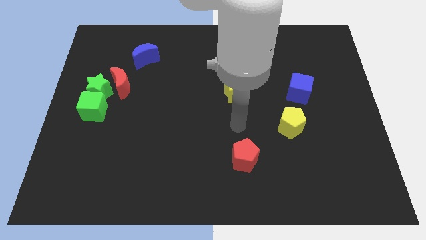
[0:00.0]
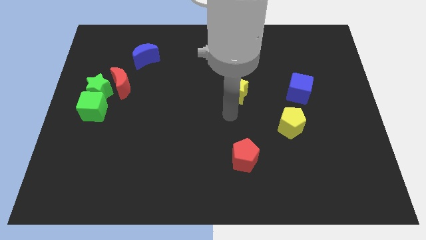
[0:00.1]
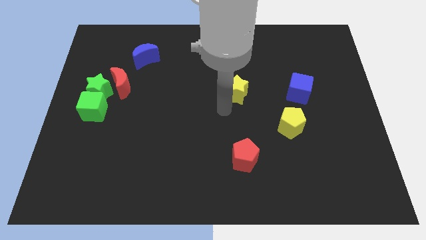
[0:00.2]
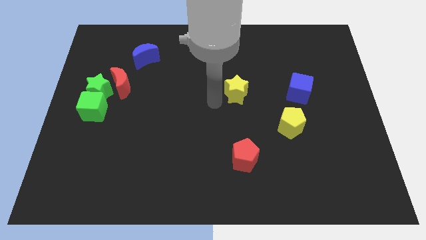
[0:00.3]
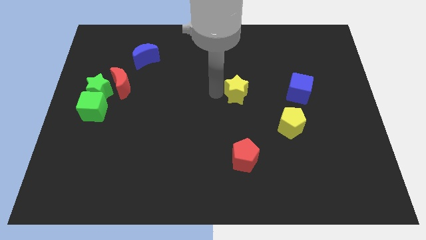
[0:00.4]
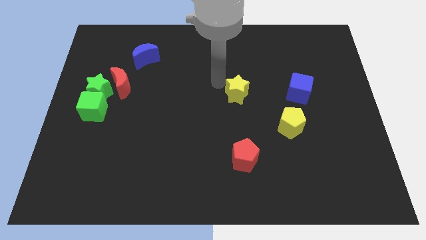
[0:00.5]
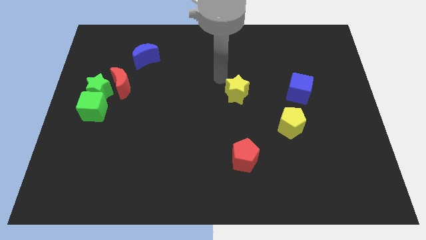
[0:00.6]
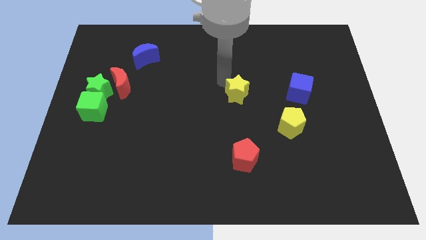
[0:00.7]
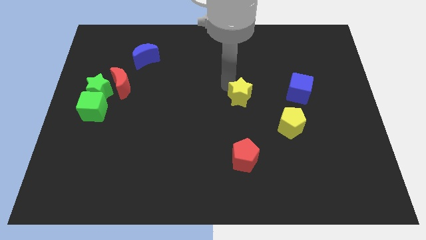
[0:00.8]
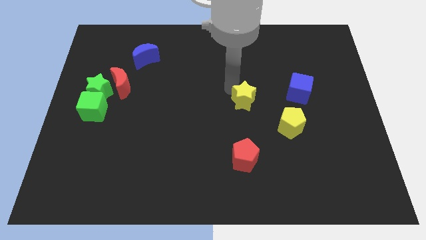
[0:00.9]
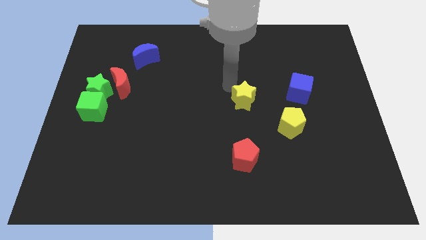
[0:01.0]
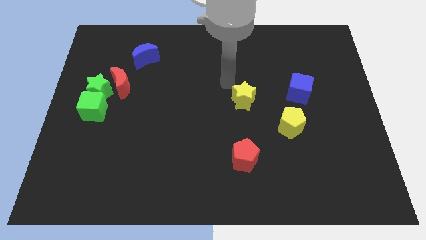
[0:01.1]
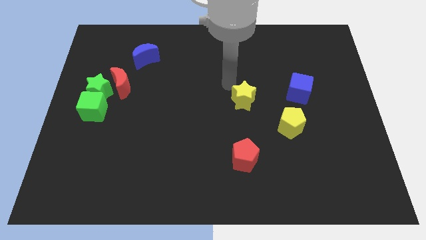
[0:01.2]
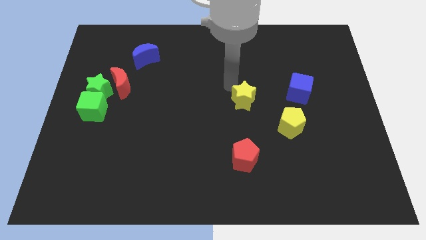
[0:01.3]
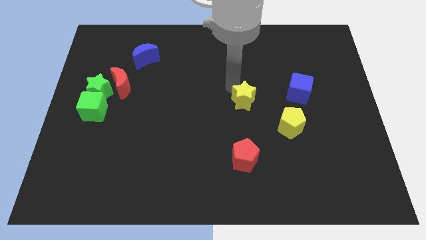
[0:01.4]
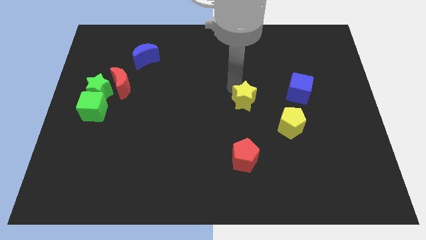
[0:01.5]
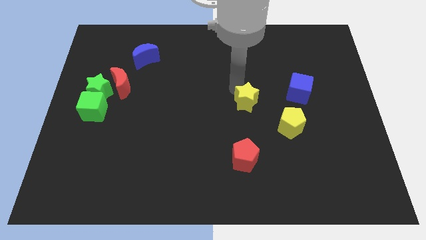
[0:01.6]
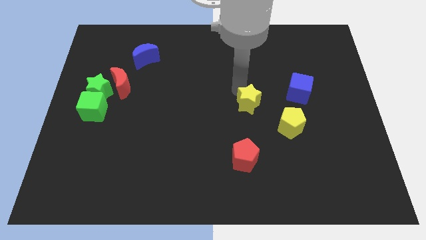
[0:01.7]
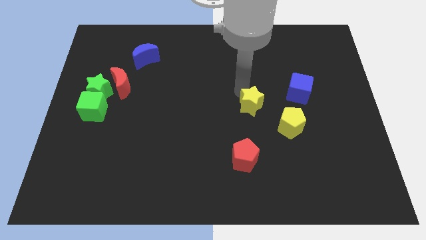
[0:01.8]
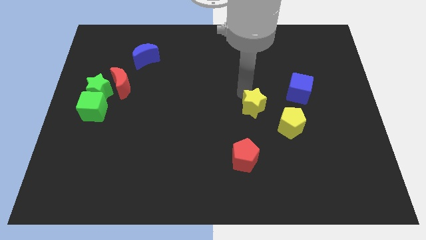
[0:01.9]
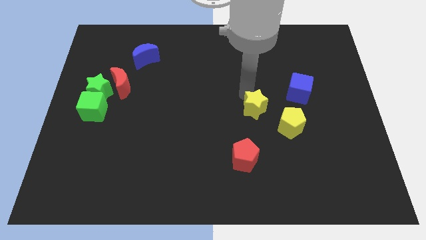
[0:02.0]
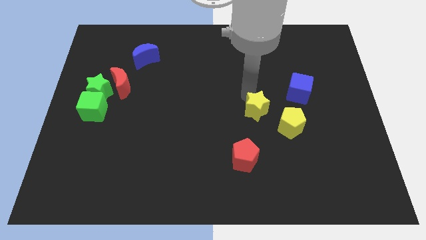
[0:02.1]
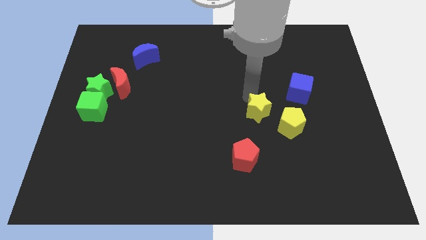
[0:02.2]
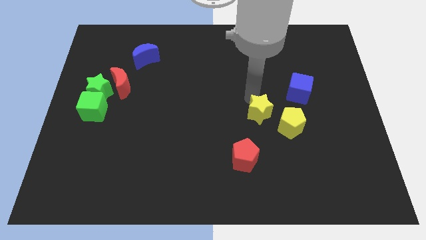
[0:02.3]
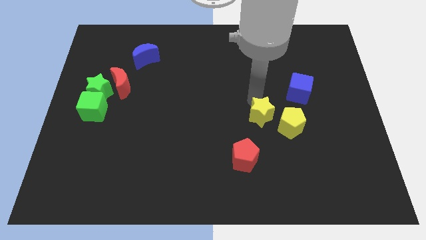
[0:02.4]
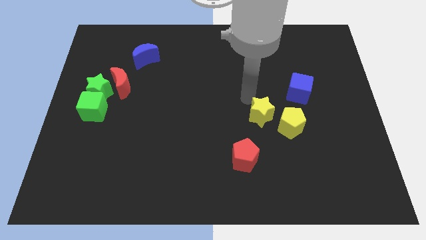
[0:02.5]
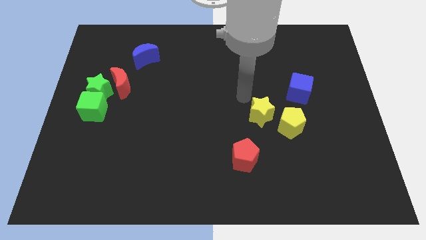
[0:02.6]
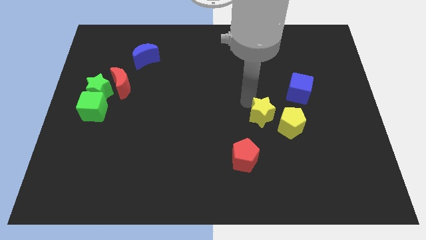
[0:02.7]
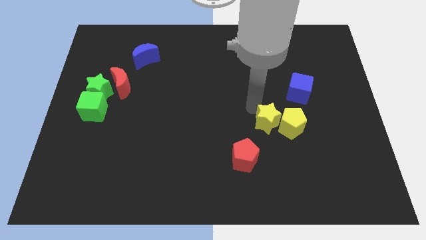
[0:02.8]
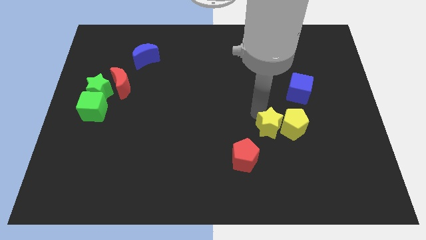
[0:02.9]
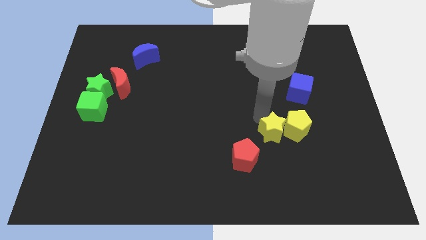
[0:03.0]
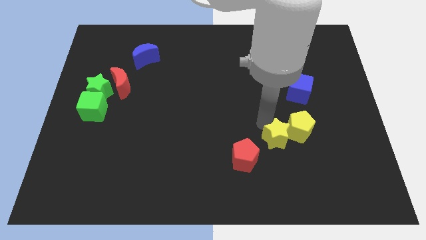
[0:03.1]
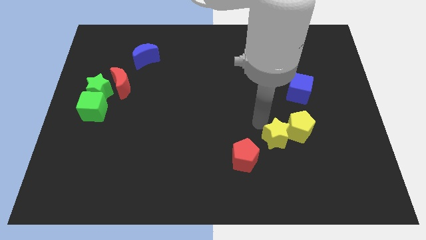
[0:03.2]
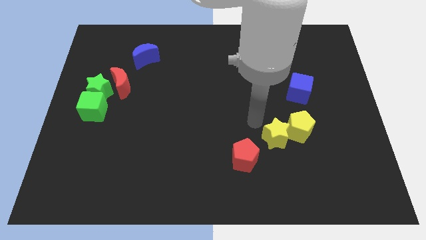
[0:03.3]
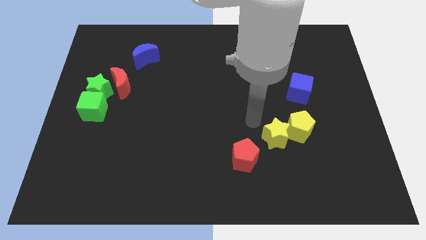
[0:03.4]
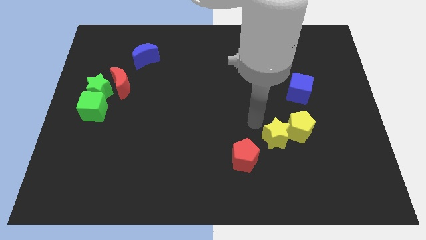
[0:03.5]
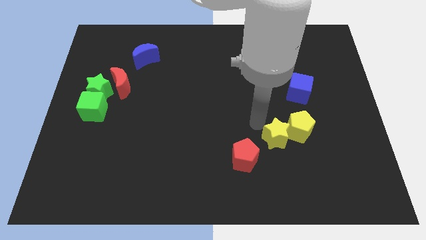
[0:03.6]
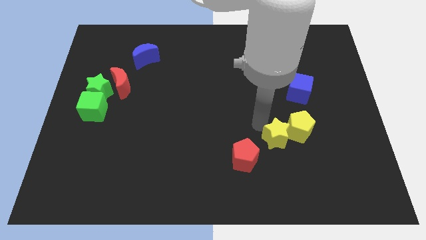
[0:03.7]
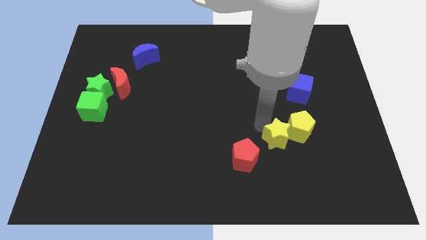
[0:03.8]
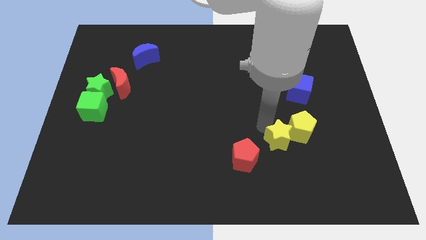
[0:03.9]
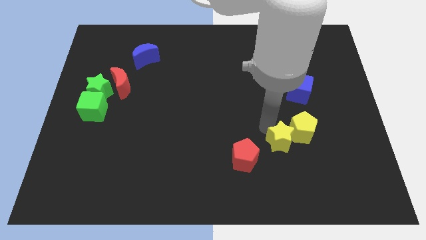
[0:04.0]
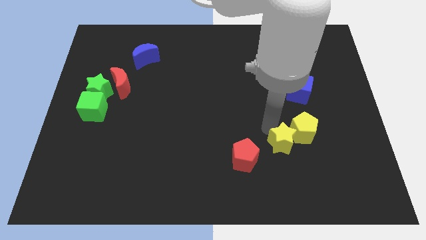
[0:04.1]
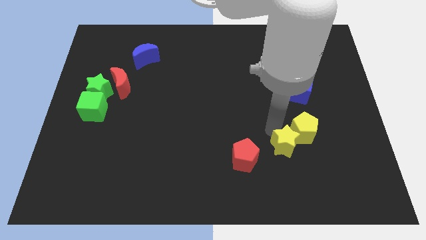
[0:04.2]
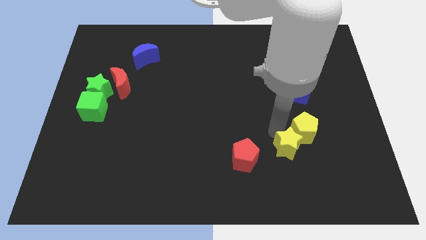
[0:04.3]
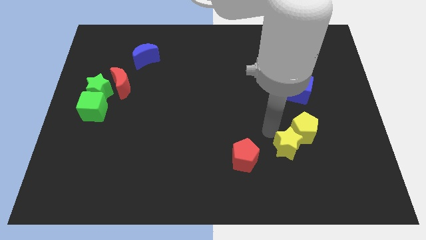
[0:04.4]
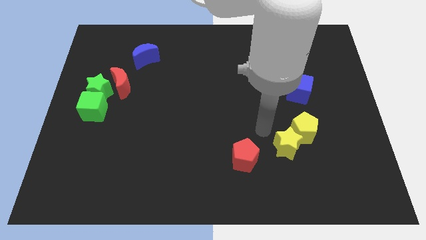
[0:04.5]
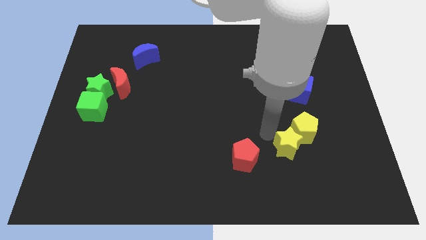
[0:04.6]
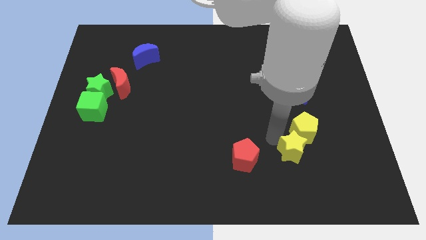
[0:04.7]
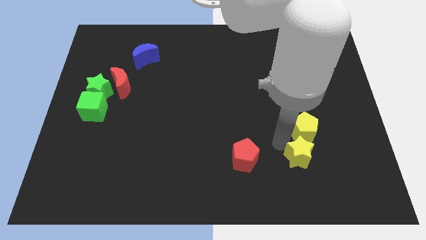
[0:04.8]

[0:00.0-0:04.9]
slide the yellow star diagonally downwards and right

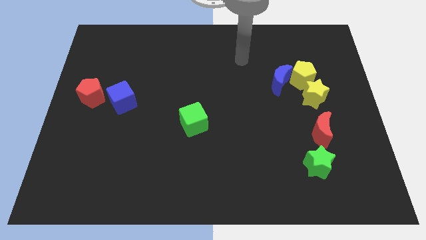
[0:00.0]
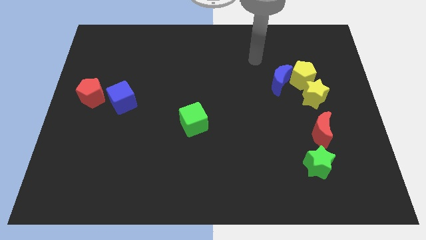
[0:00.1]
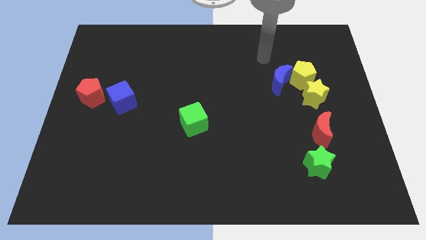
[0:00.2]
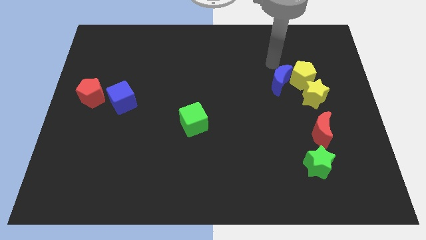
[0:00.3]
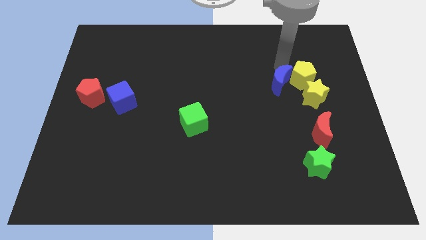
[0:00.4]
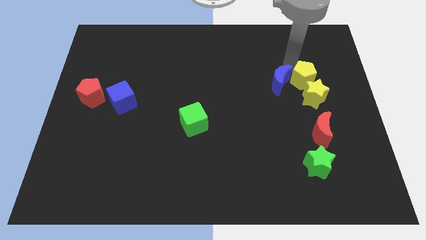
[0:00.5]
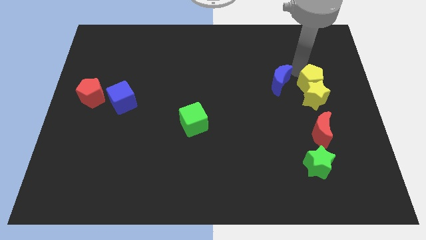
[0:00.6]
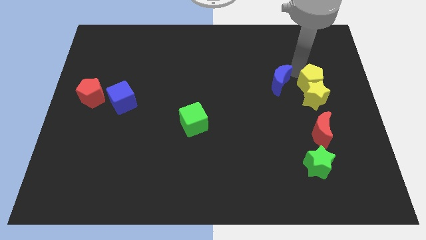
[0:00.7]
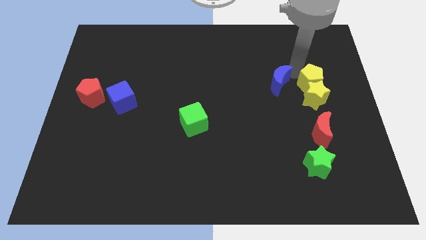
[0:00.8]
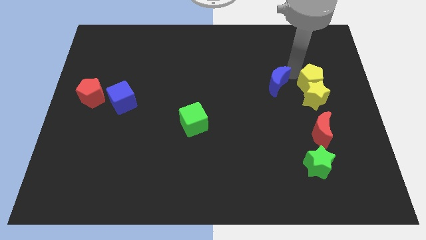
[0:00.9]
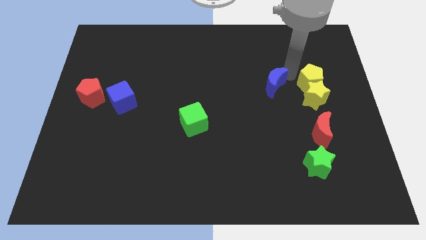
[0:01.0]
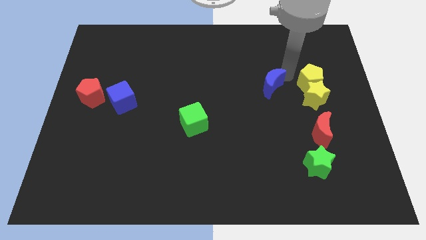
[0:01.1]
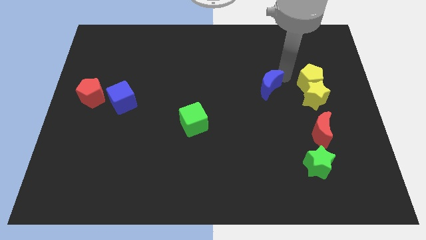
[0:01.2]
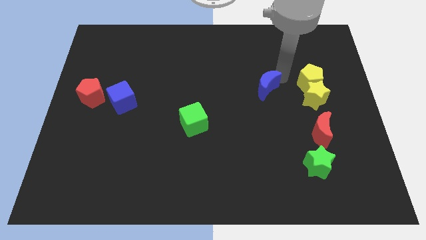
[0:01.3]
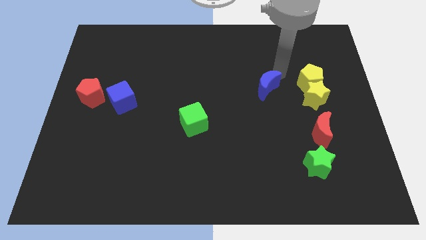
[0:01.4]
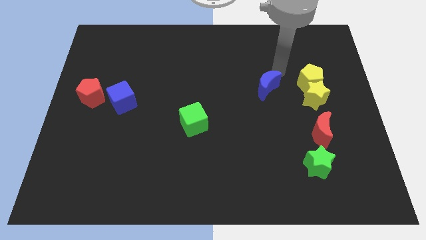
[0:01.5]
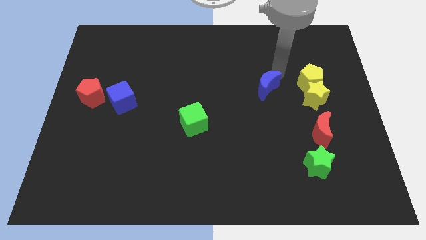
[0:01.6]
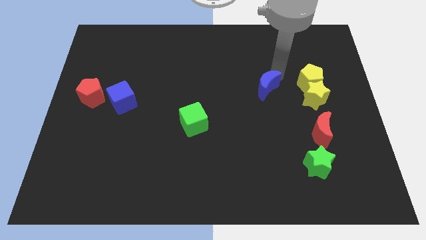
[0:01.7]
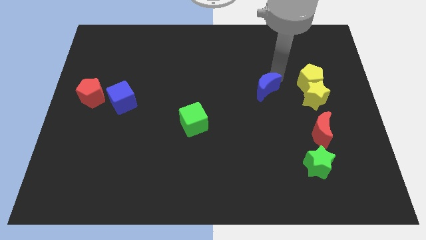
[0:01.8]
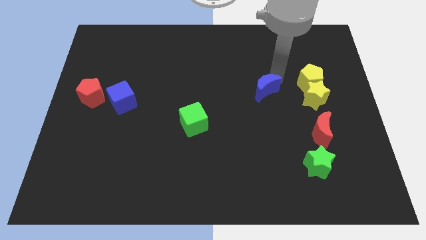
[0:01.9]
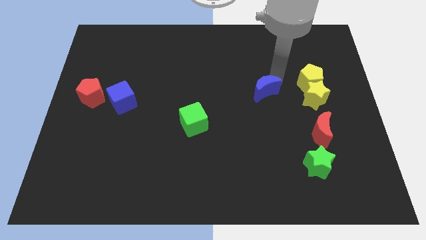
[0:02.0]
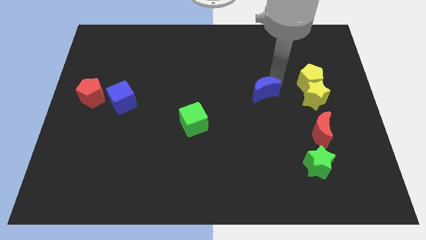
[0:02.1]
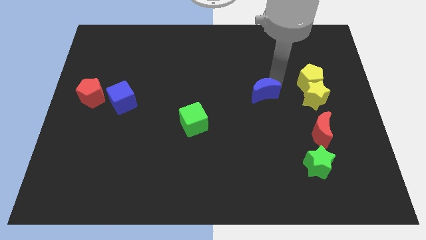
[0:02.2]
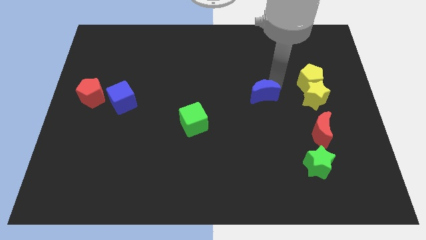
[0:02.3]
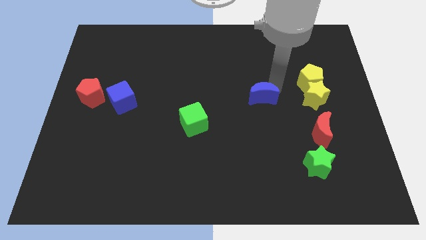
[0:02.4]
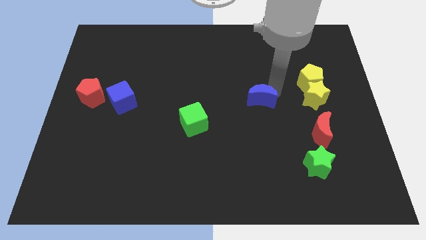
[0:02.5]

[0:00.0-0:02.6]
slightly move the blue moon down and then left

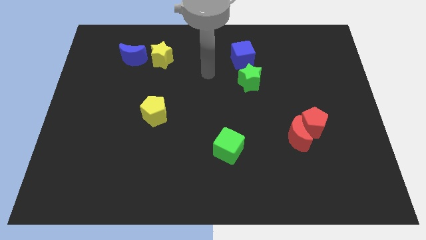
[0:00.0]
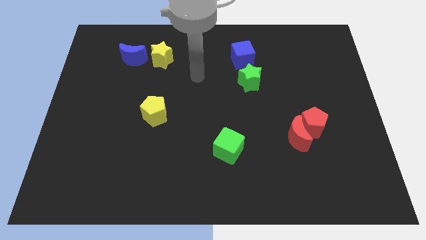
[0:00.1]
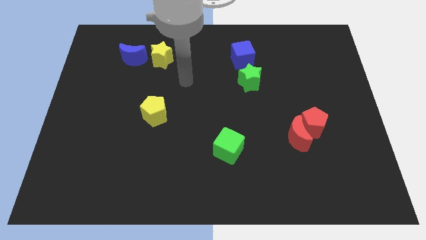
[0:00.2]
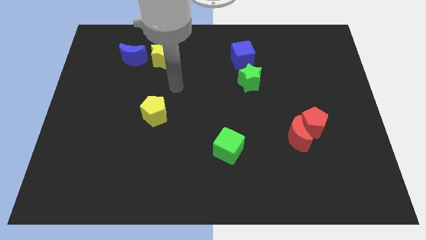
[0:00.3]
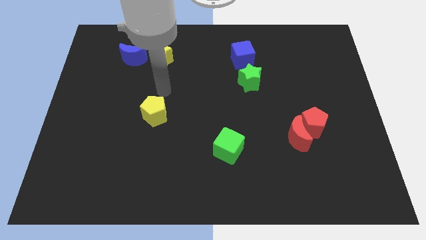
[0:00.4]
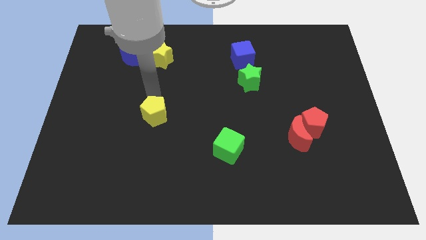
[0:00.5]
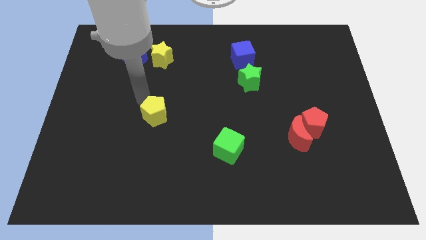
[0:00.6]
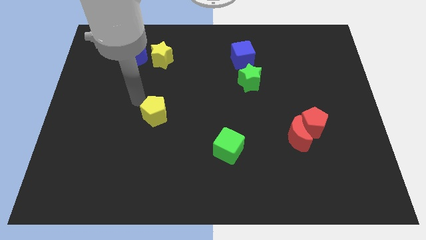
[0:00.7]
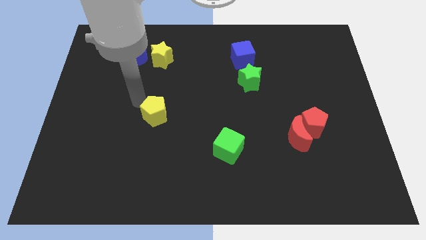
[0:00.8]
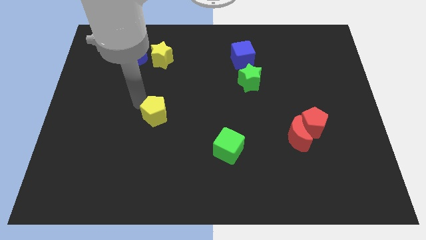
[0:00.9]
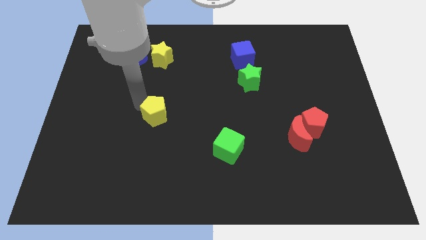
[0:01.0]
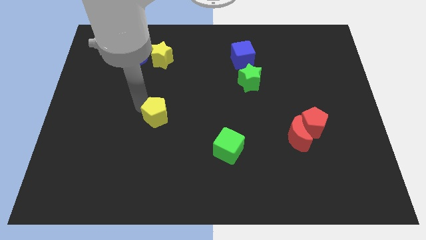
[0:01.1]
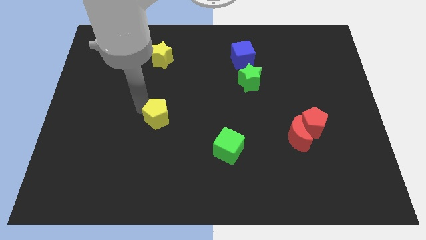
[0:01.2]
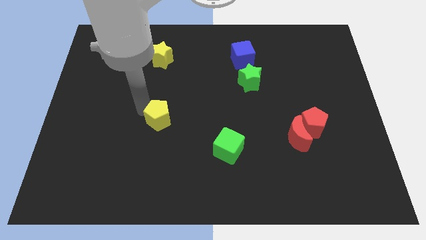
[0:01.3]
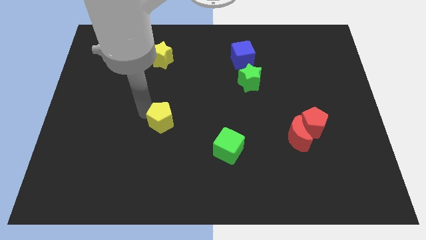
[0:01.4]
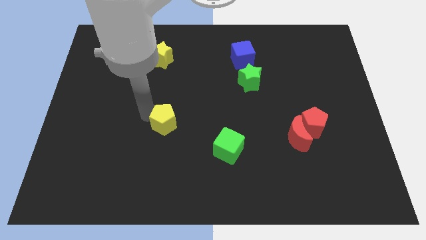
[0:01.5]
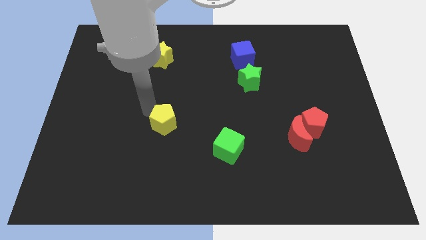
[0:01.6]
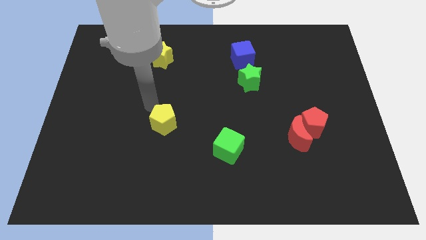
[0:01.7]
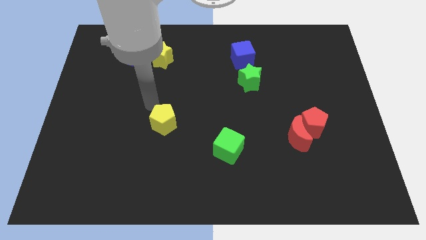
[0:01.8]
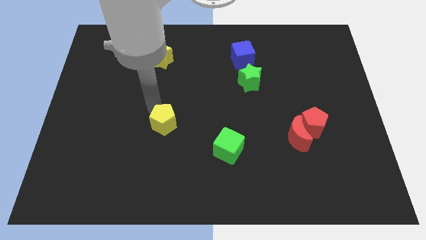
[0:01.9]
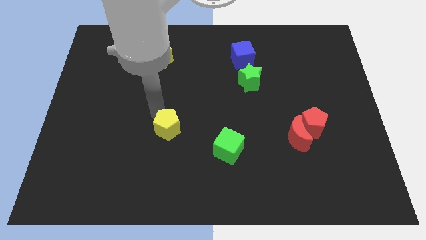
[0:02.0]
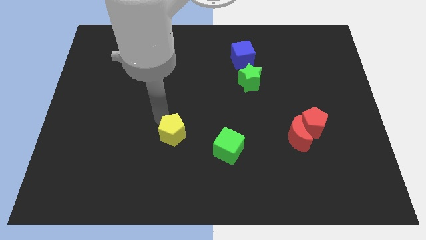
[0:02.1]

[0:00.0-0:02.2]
move the yellow pentagon down and to the right diagonally a little
